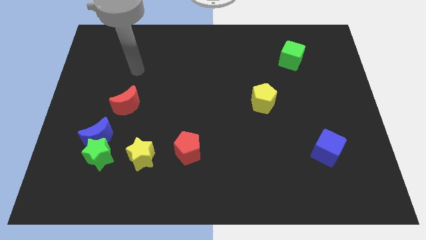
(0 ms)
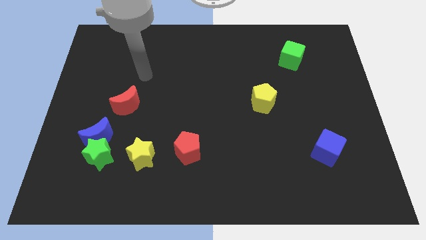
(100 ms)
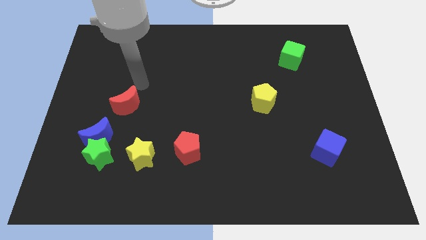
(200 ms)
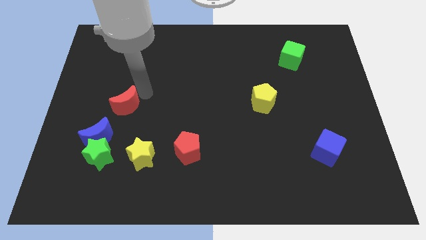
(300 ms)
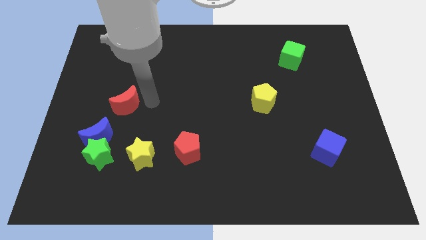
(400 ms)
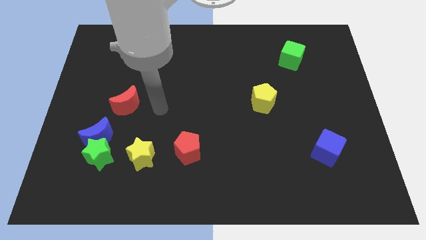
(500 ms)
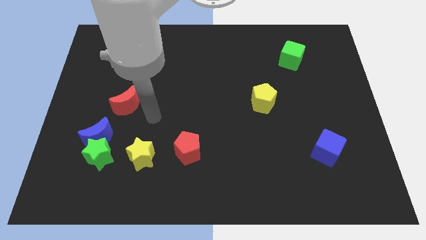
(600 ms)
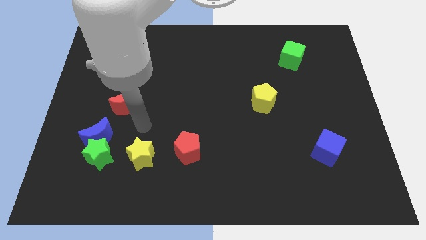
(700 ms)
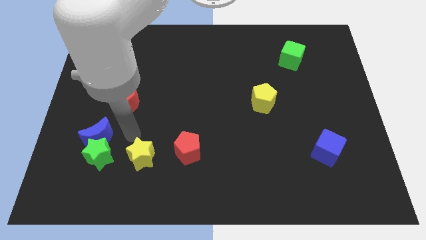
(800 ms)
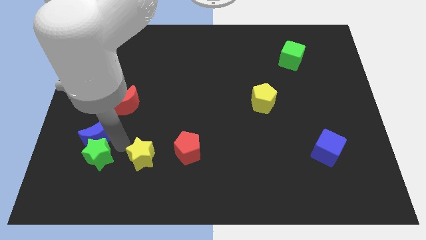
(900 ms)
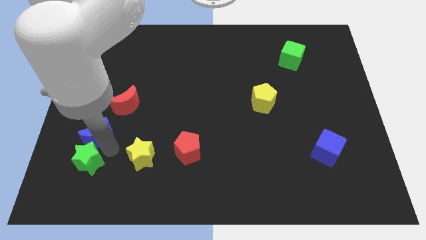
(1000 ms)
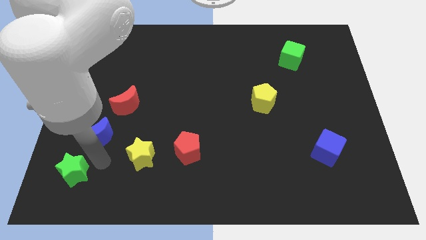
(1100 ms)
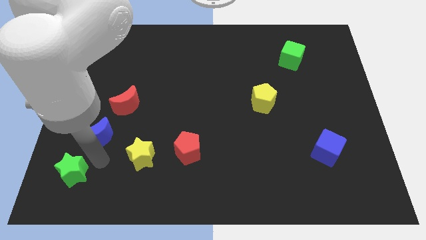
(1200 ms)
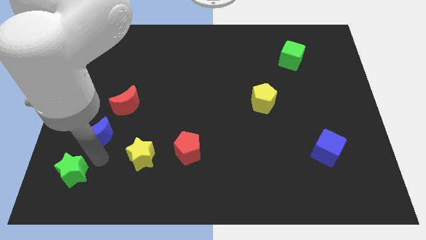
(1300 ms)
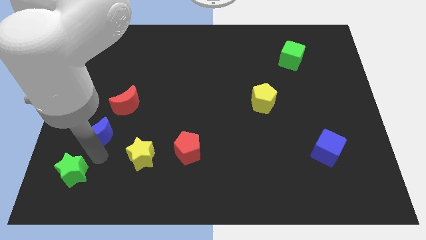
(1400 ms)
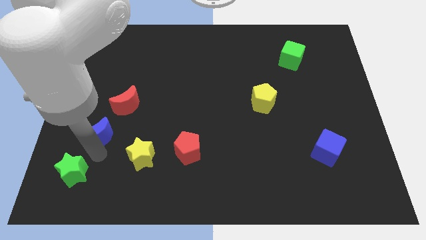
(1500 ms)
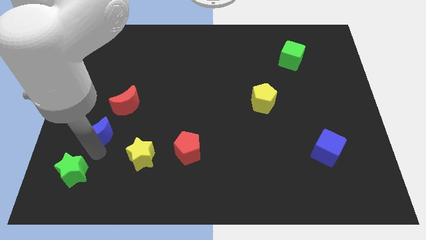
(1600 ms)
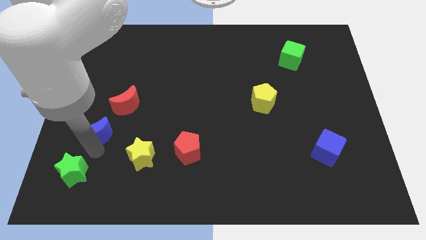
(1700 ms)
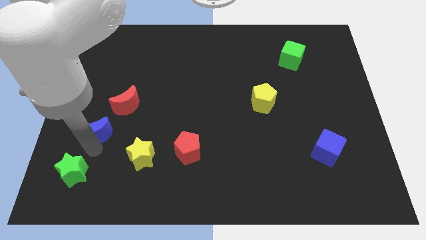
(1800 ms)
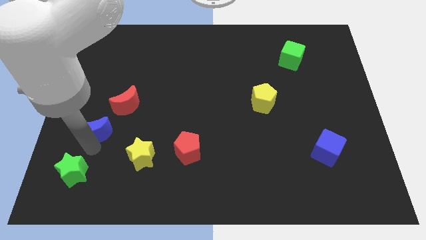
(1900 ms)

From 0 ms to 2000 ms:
move the blue moon away from the green star

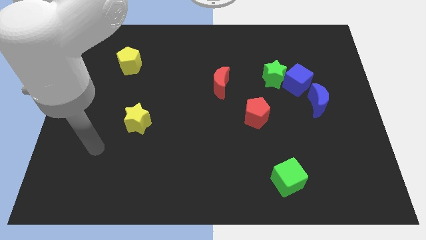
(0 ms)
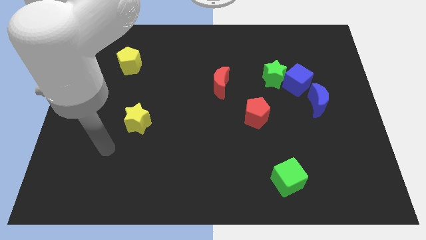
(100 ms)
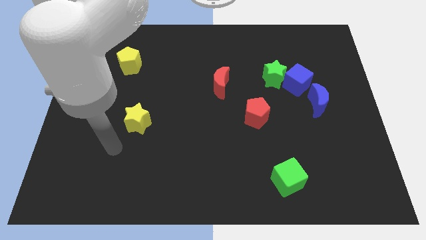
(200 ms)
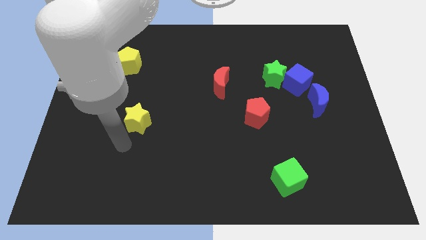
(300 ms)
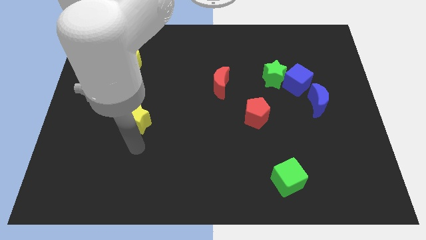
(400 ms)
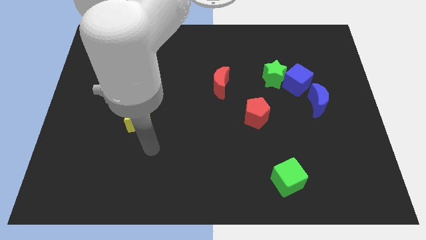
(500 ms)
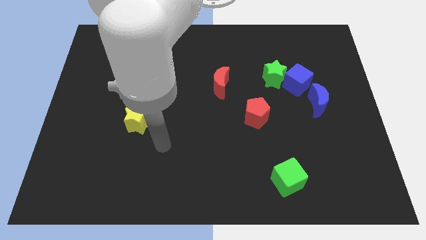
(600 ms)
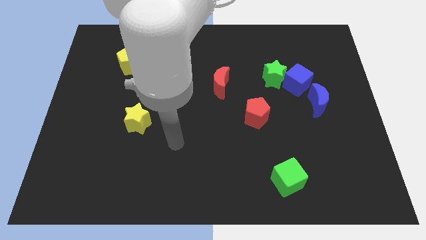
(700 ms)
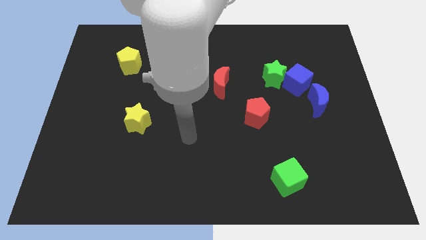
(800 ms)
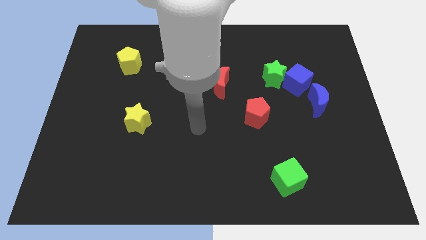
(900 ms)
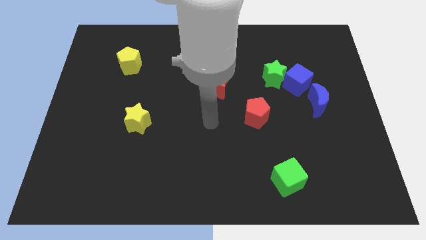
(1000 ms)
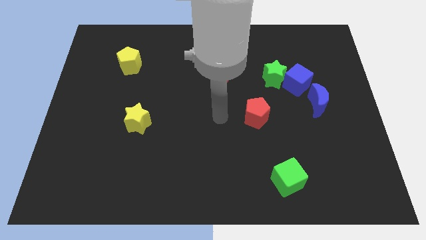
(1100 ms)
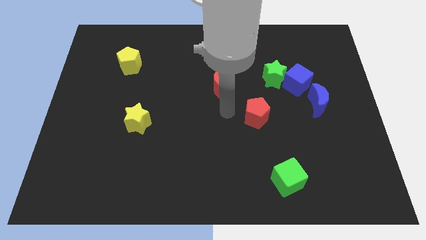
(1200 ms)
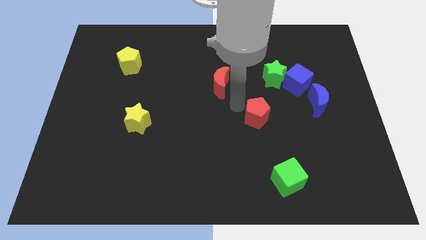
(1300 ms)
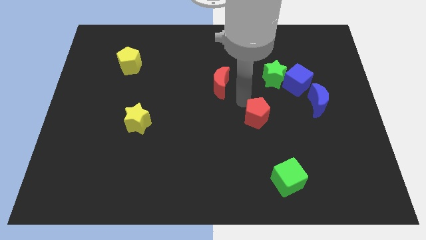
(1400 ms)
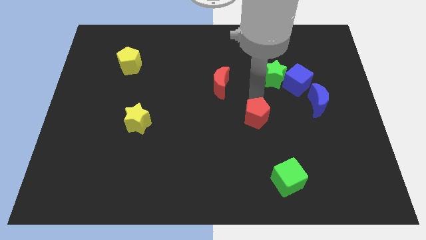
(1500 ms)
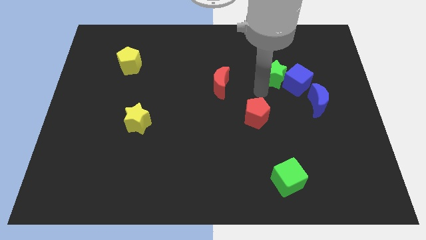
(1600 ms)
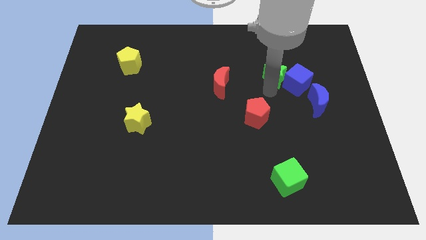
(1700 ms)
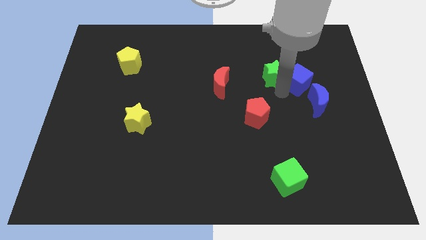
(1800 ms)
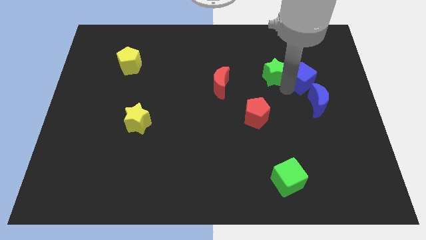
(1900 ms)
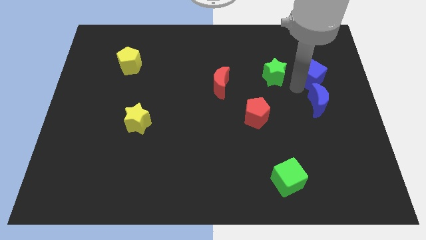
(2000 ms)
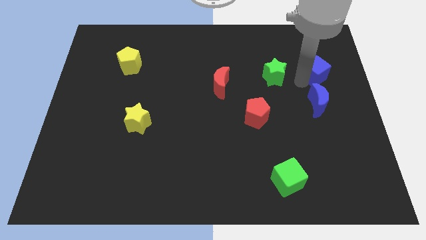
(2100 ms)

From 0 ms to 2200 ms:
pull the green star apart from the blue cube

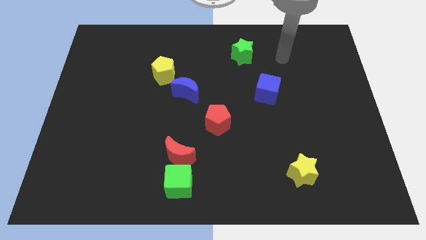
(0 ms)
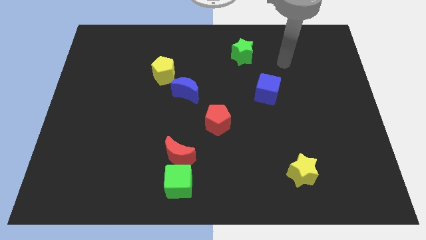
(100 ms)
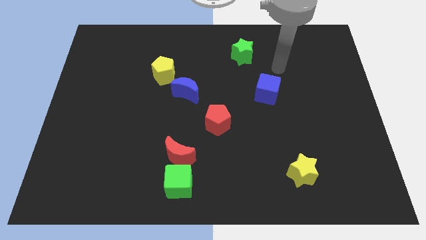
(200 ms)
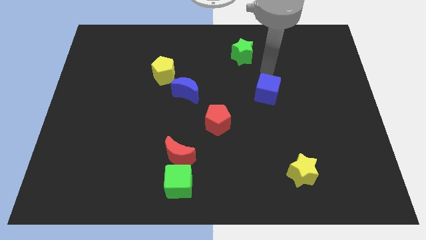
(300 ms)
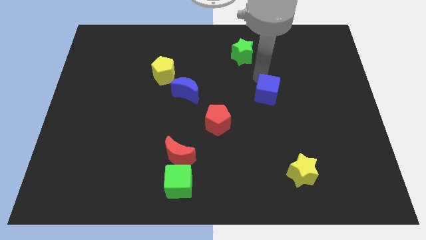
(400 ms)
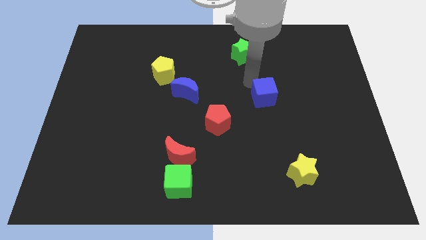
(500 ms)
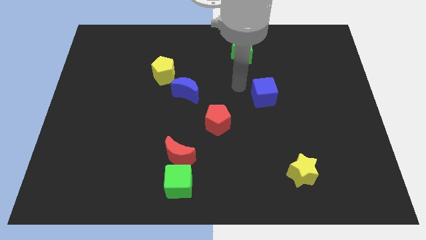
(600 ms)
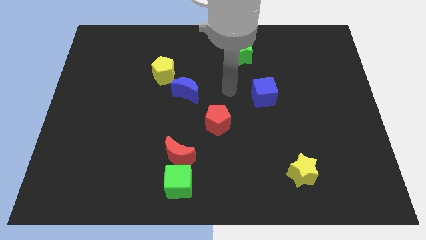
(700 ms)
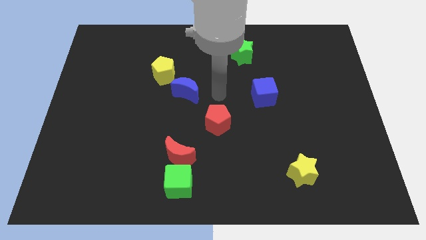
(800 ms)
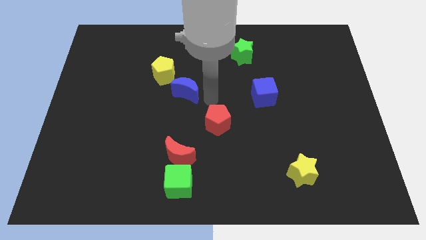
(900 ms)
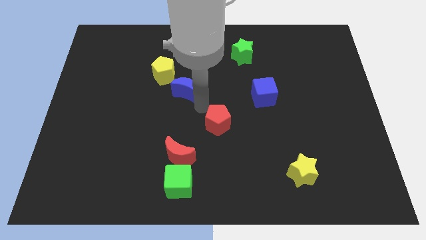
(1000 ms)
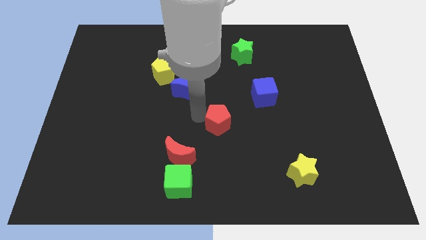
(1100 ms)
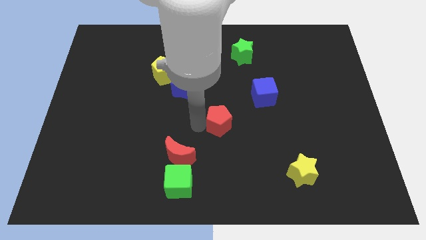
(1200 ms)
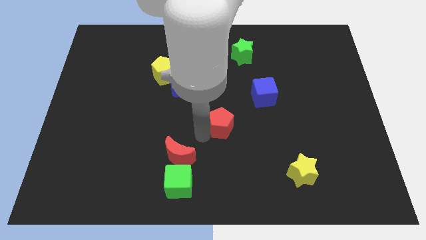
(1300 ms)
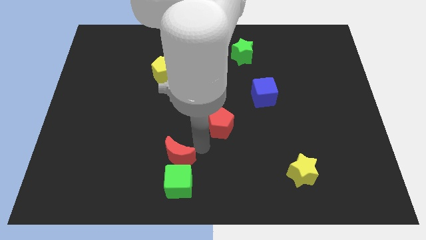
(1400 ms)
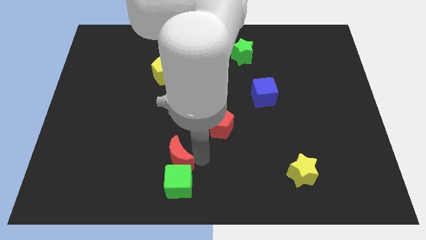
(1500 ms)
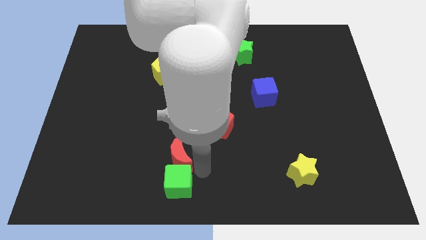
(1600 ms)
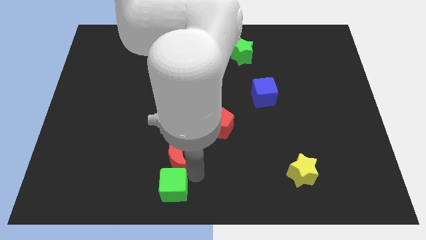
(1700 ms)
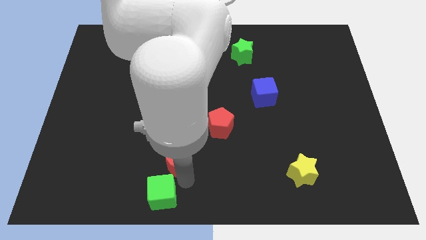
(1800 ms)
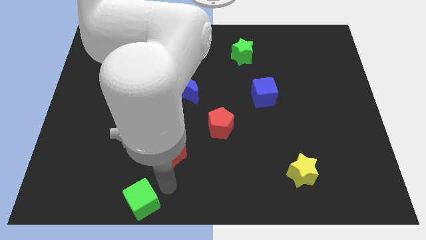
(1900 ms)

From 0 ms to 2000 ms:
move the red moon away from the green cube

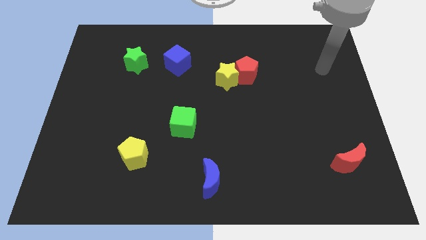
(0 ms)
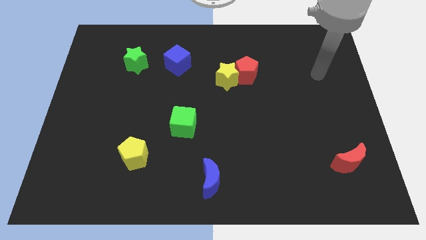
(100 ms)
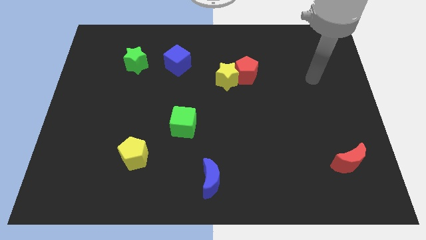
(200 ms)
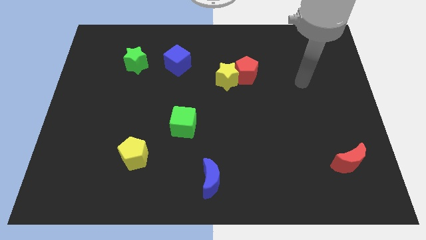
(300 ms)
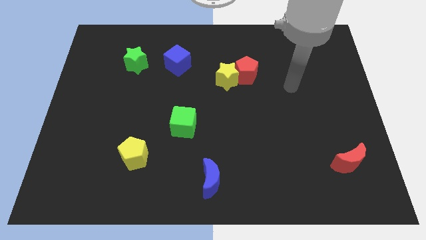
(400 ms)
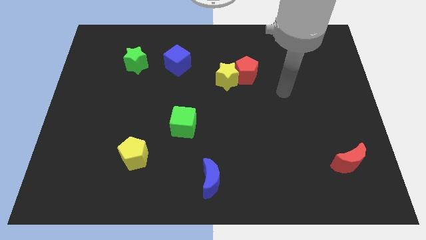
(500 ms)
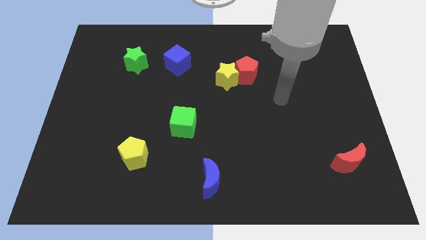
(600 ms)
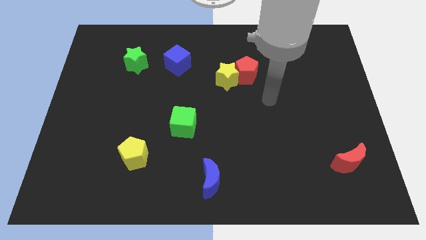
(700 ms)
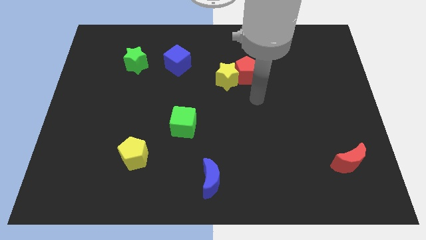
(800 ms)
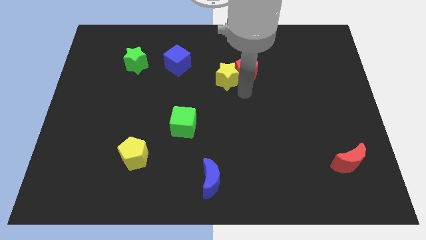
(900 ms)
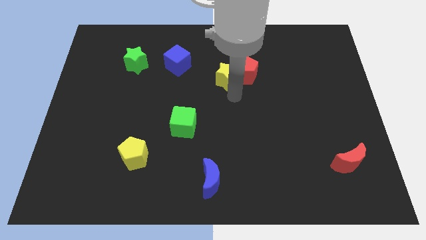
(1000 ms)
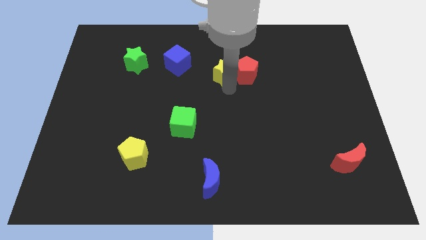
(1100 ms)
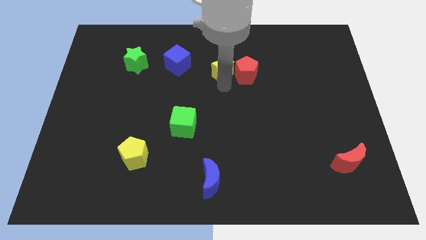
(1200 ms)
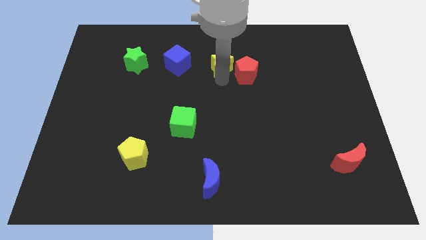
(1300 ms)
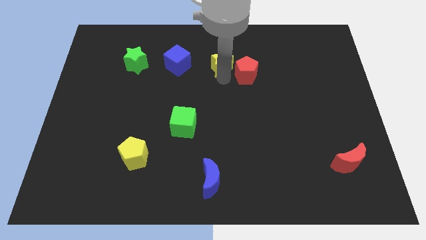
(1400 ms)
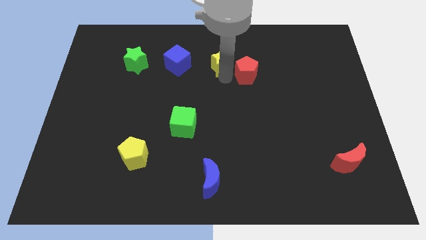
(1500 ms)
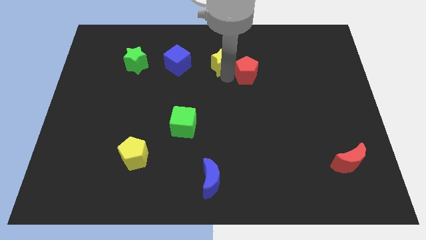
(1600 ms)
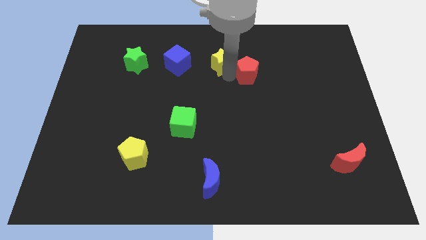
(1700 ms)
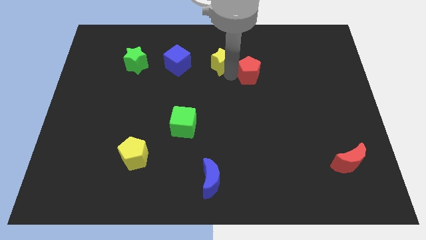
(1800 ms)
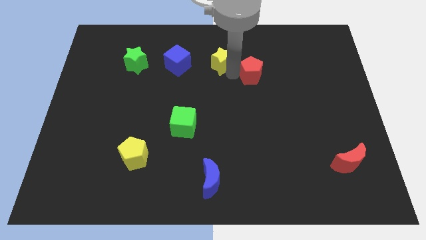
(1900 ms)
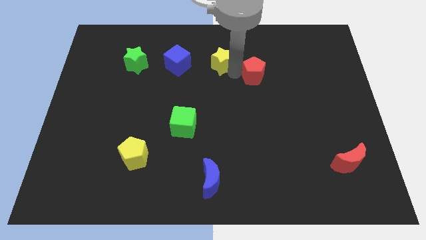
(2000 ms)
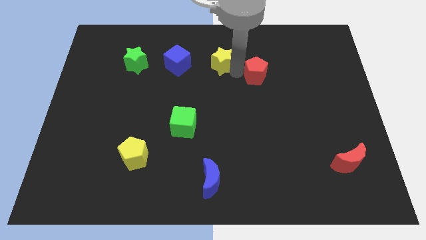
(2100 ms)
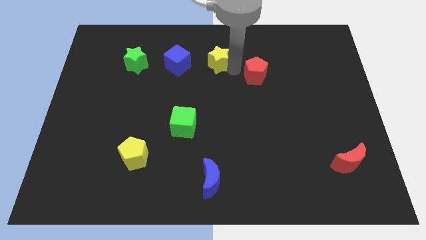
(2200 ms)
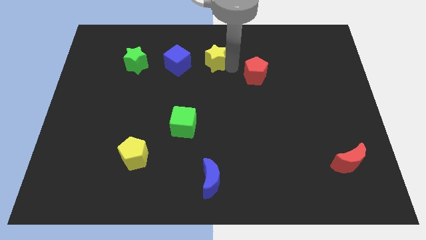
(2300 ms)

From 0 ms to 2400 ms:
separate the red pentagon from the yellow star

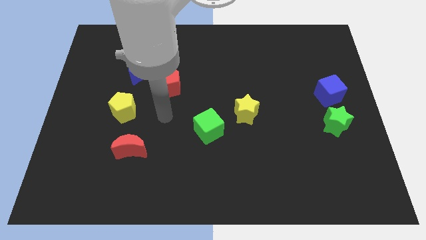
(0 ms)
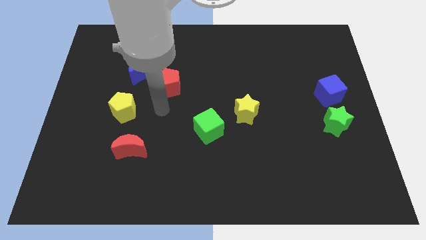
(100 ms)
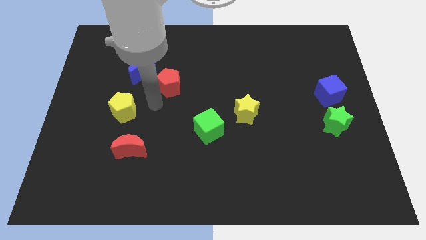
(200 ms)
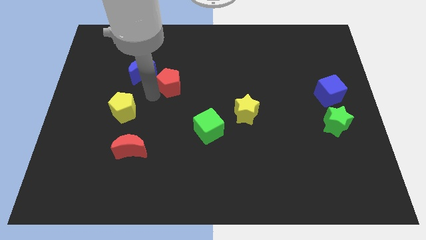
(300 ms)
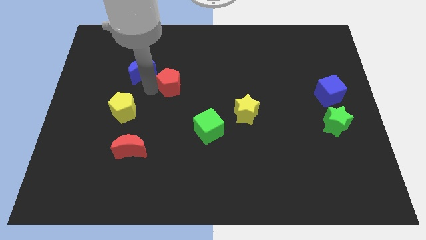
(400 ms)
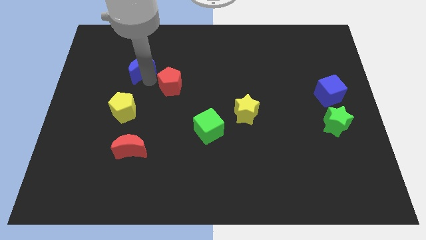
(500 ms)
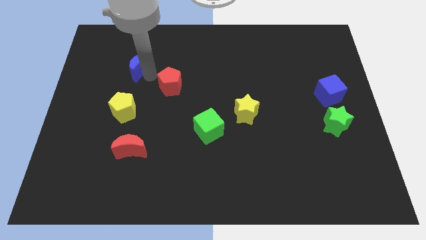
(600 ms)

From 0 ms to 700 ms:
separate the red pentagon from the blue moon

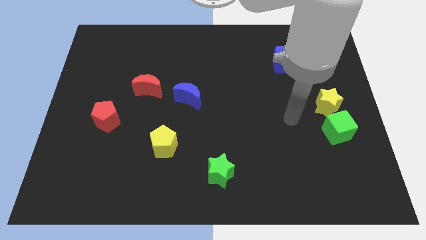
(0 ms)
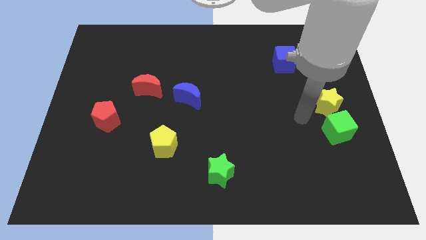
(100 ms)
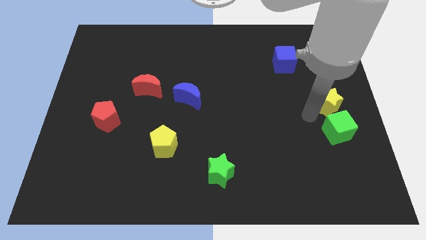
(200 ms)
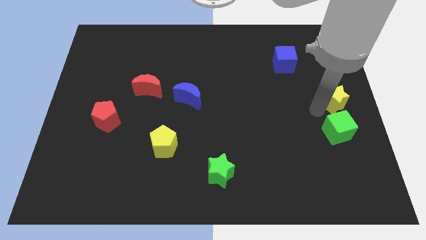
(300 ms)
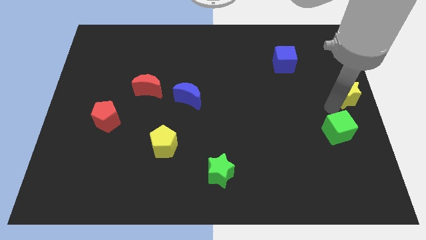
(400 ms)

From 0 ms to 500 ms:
move the green cube away from the yellow star
